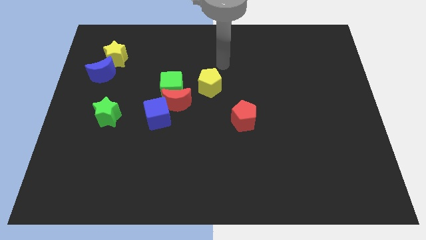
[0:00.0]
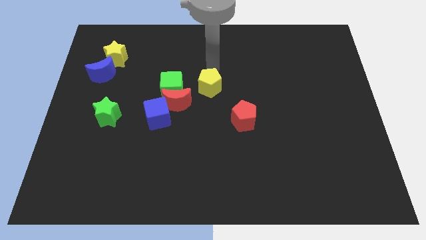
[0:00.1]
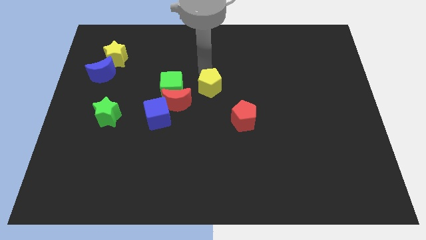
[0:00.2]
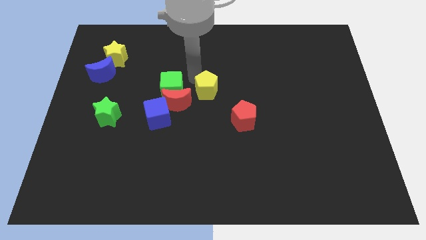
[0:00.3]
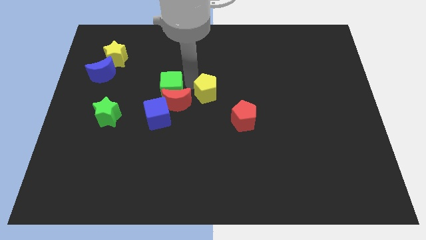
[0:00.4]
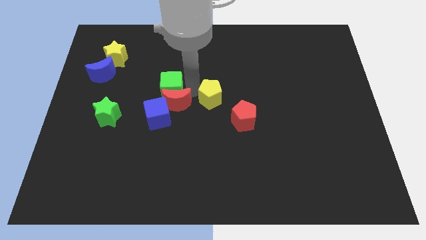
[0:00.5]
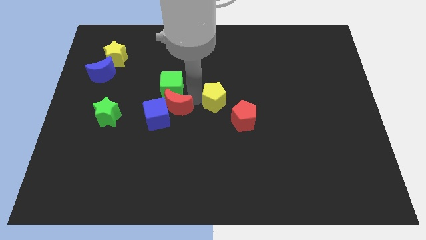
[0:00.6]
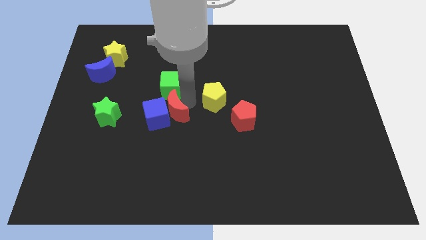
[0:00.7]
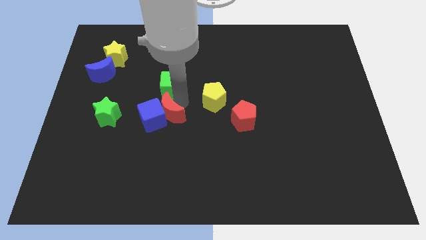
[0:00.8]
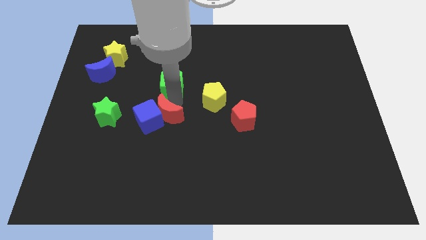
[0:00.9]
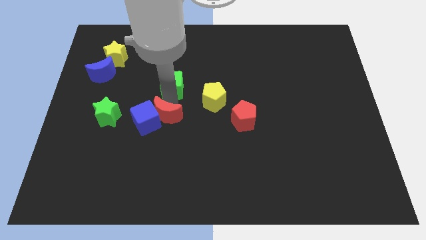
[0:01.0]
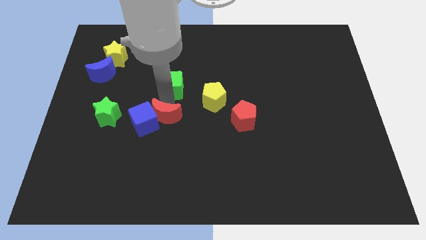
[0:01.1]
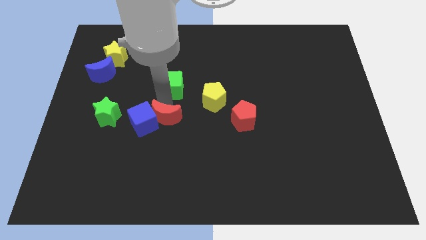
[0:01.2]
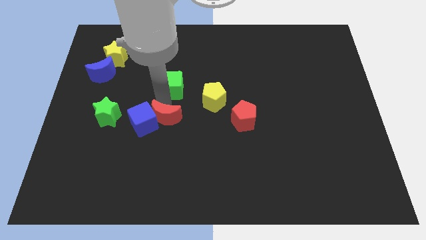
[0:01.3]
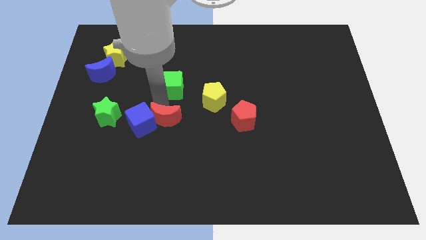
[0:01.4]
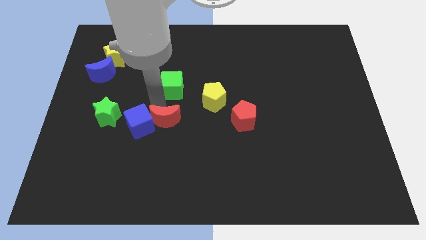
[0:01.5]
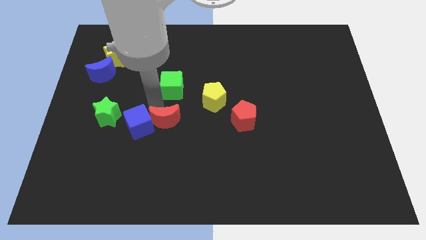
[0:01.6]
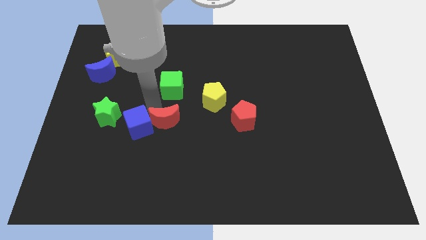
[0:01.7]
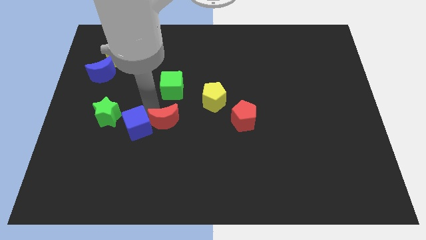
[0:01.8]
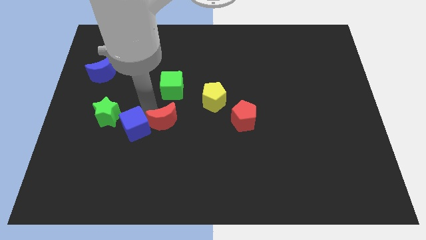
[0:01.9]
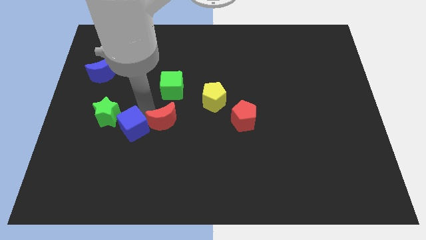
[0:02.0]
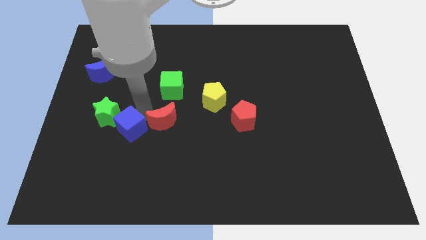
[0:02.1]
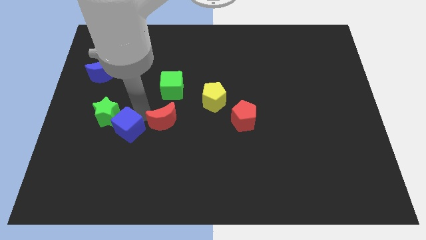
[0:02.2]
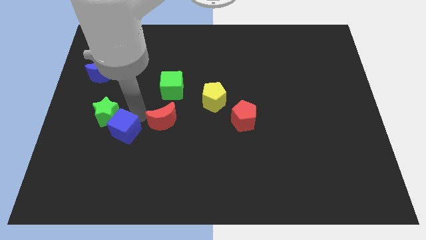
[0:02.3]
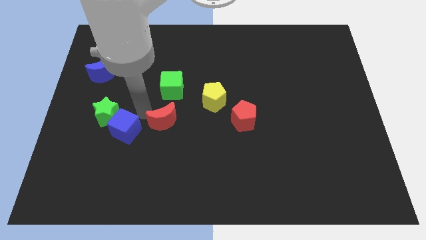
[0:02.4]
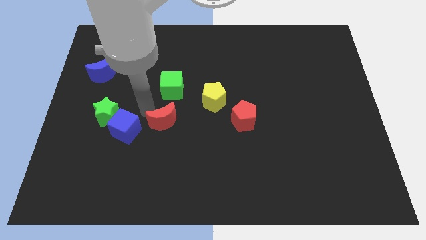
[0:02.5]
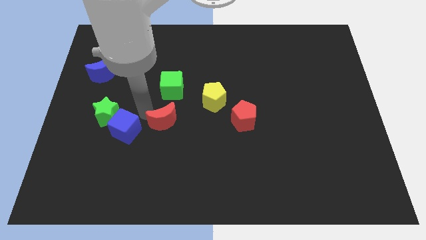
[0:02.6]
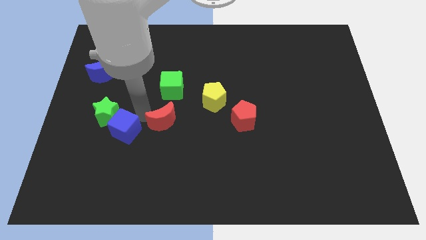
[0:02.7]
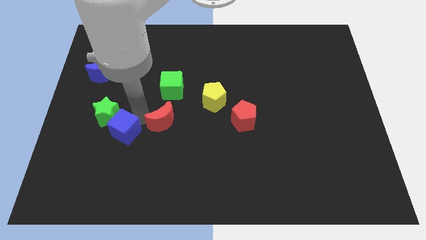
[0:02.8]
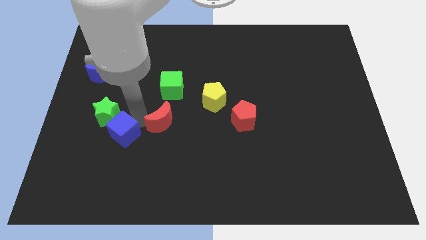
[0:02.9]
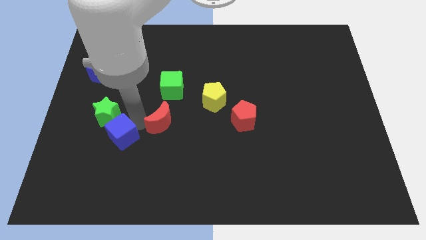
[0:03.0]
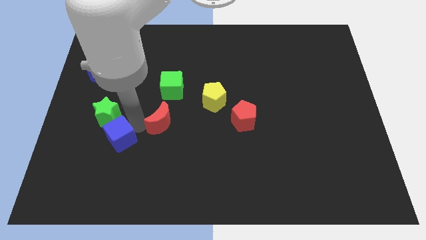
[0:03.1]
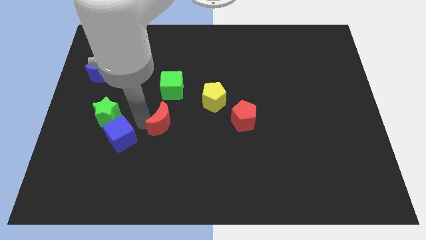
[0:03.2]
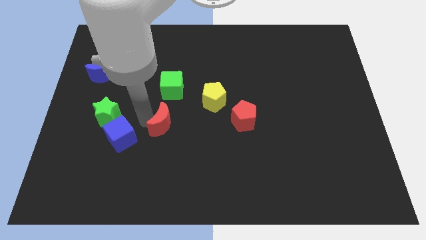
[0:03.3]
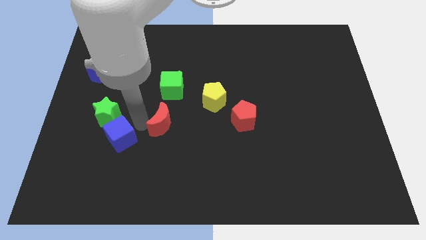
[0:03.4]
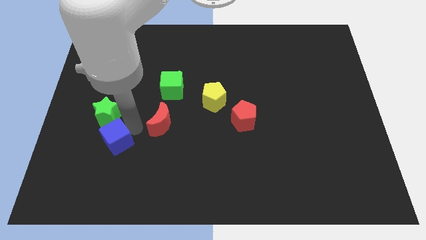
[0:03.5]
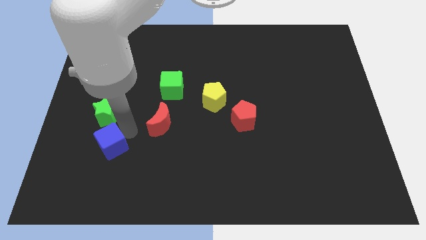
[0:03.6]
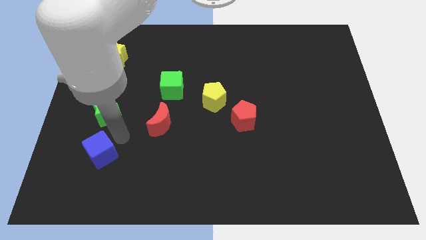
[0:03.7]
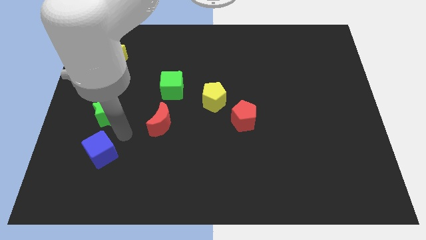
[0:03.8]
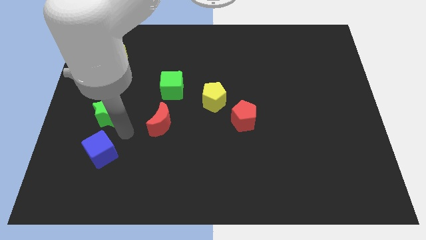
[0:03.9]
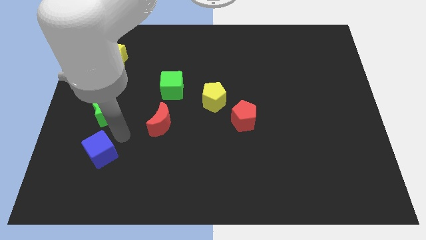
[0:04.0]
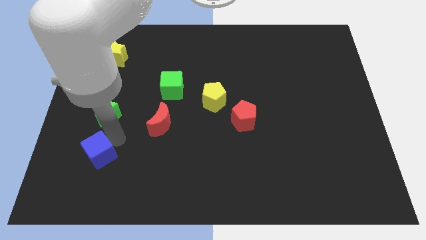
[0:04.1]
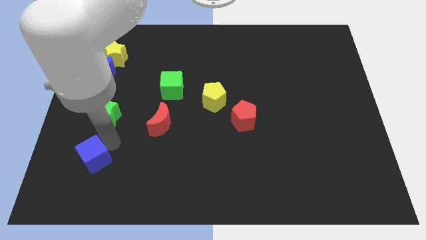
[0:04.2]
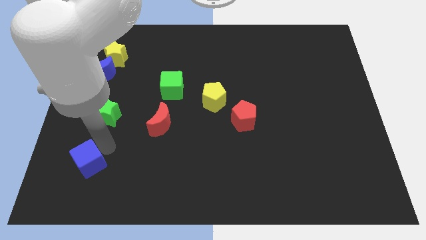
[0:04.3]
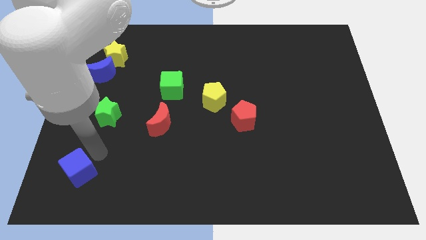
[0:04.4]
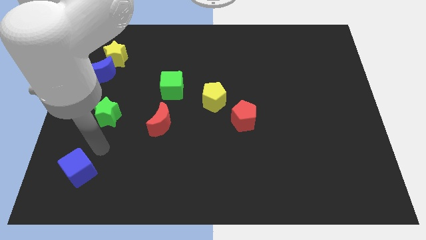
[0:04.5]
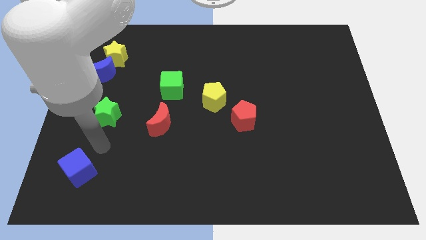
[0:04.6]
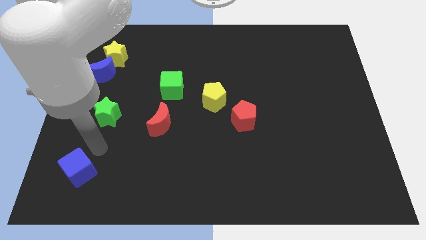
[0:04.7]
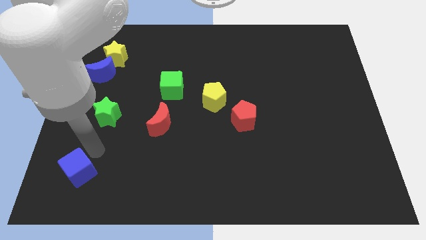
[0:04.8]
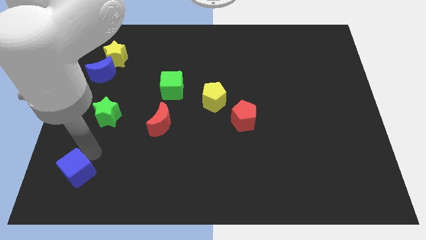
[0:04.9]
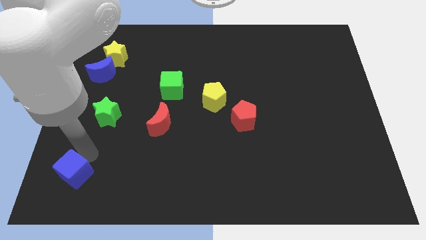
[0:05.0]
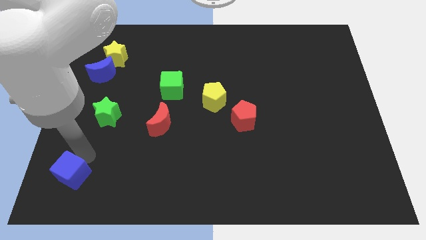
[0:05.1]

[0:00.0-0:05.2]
move the blue cube to the bottom left of the board
